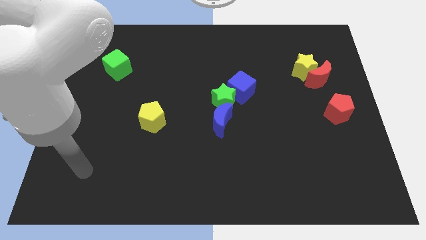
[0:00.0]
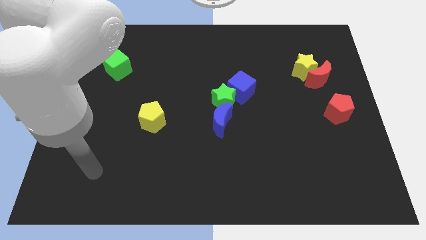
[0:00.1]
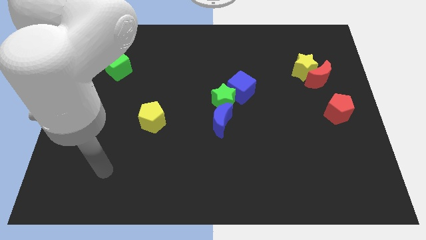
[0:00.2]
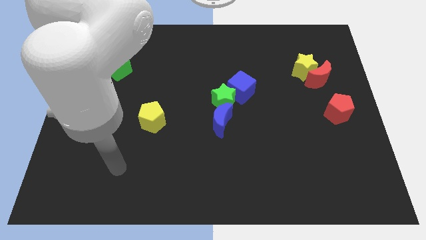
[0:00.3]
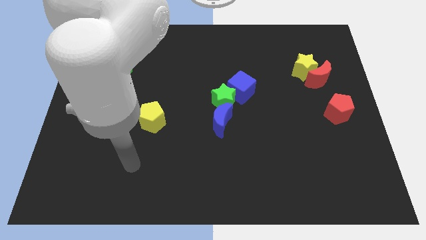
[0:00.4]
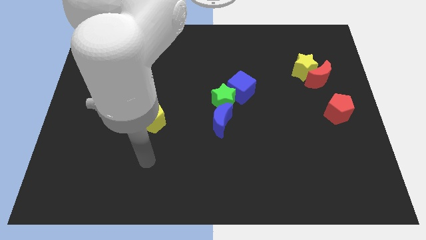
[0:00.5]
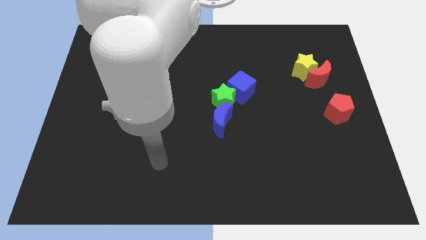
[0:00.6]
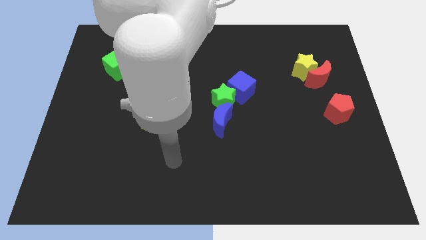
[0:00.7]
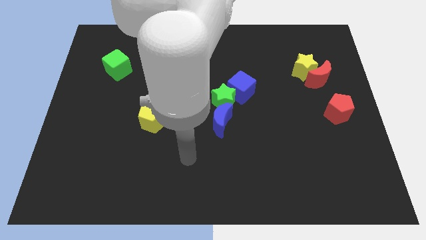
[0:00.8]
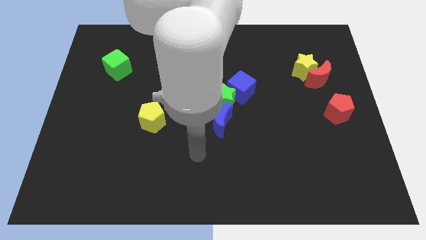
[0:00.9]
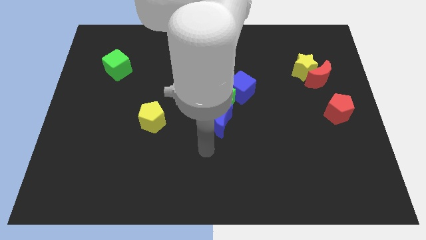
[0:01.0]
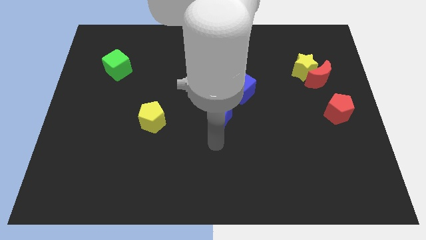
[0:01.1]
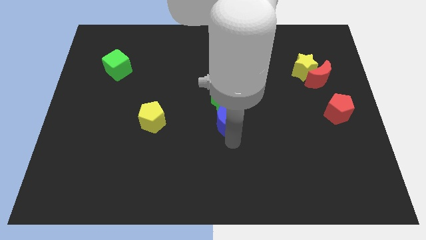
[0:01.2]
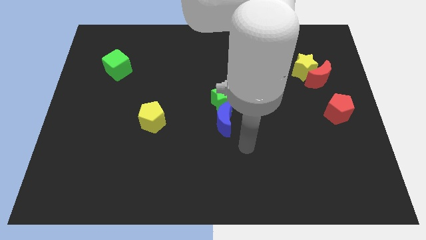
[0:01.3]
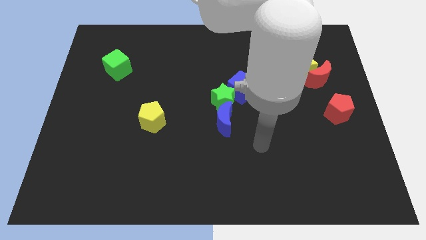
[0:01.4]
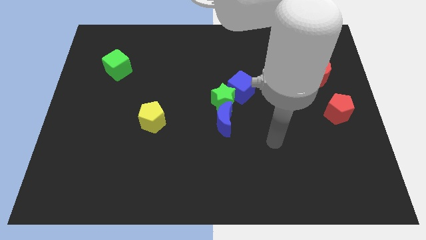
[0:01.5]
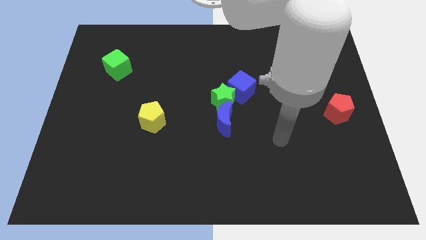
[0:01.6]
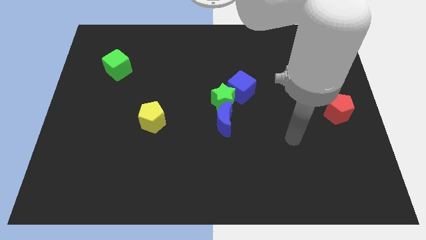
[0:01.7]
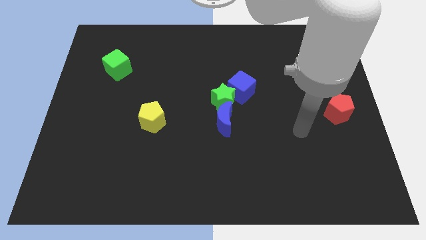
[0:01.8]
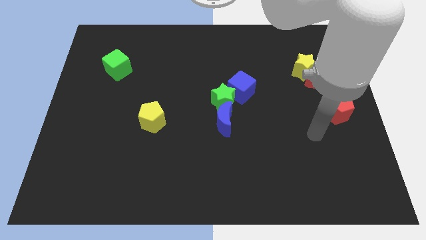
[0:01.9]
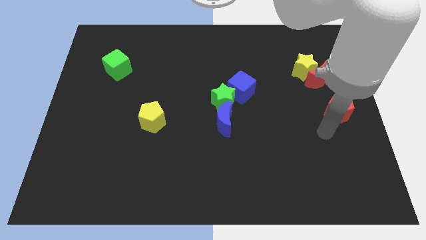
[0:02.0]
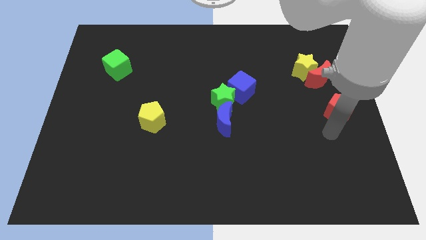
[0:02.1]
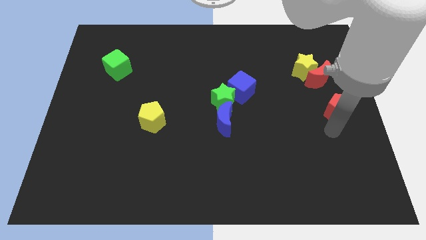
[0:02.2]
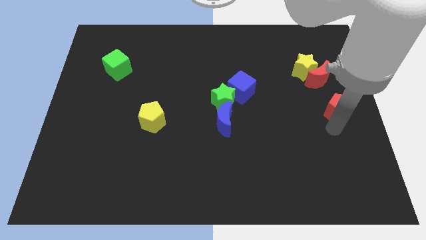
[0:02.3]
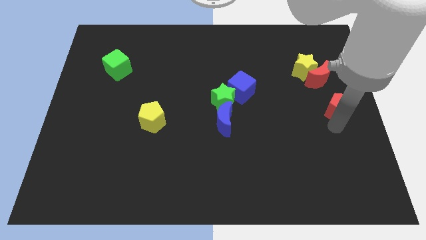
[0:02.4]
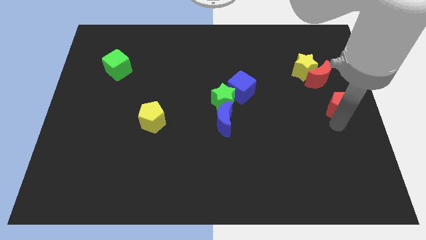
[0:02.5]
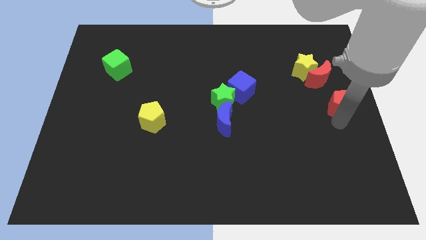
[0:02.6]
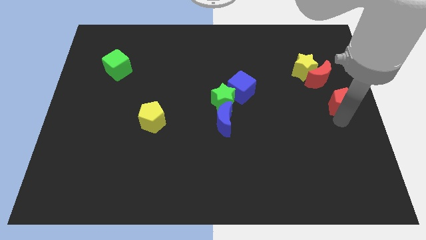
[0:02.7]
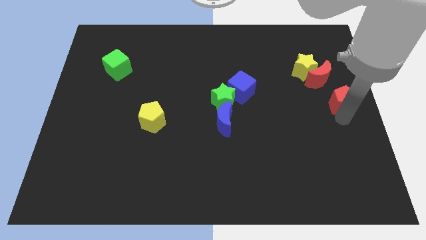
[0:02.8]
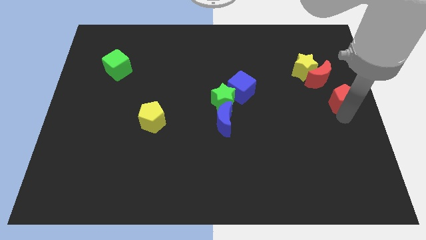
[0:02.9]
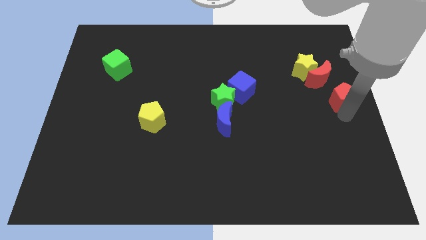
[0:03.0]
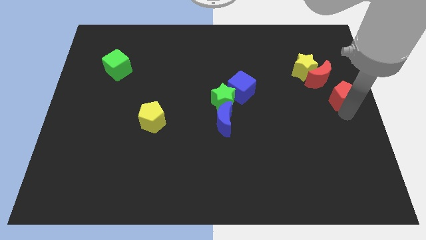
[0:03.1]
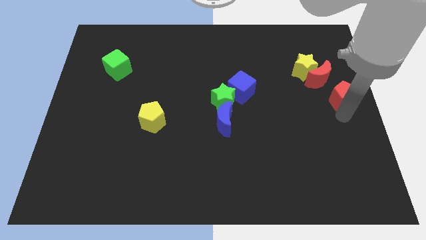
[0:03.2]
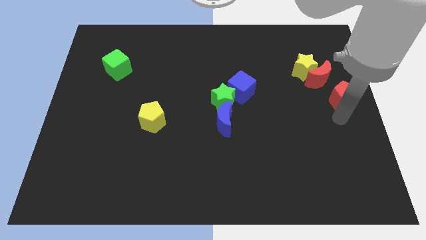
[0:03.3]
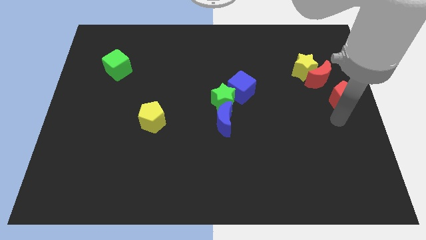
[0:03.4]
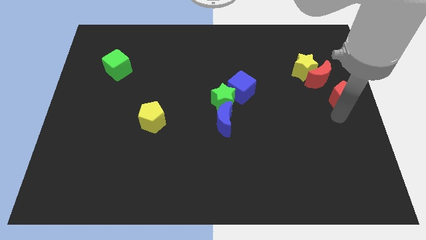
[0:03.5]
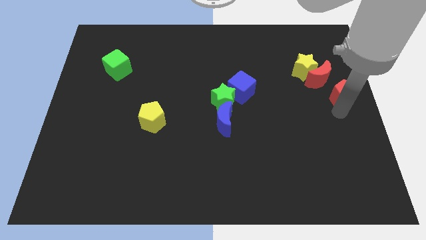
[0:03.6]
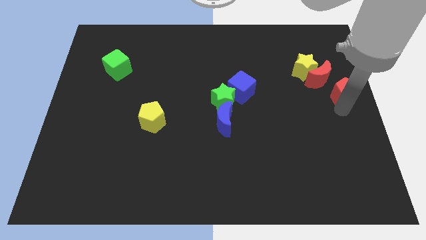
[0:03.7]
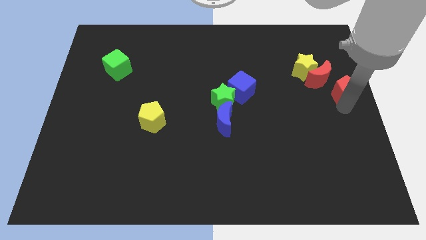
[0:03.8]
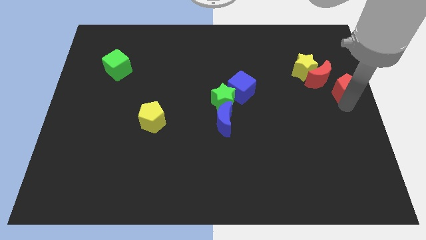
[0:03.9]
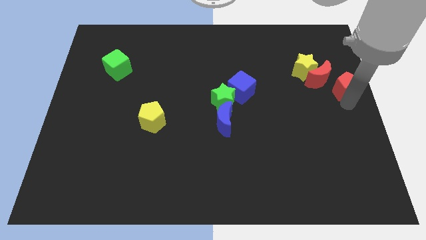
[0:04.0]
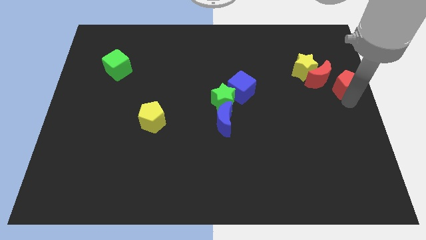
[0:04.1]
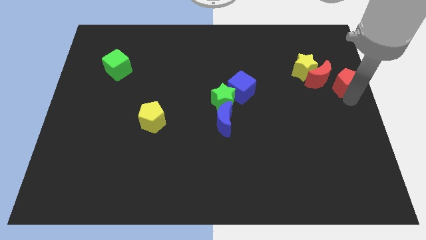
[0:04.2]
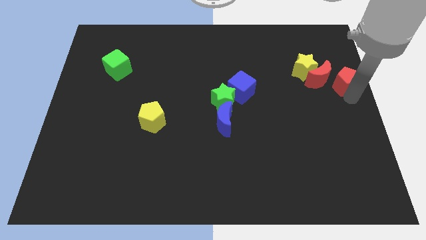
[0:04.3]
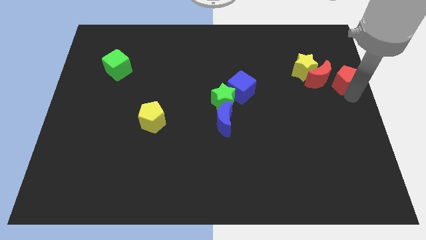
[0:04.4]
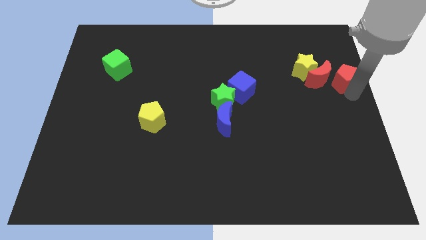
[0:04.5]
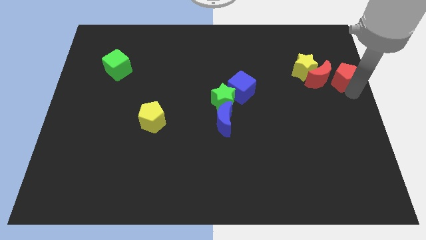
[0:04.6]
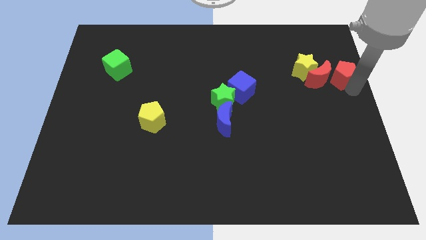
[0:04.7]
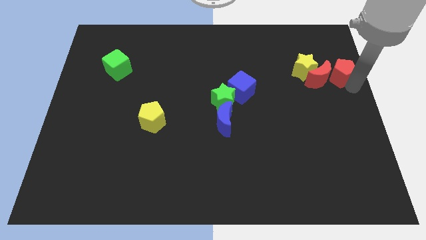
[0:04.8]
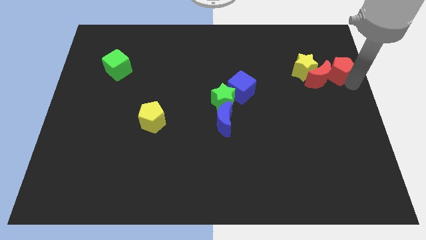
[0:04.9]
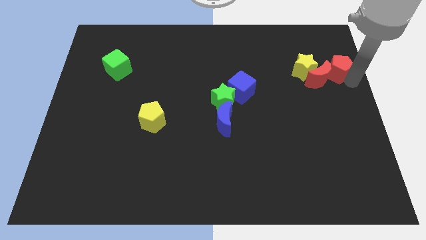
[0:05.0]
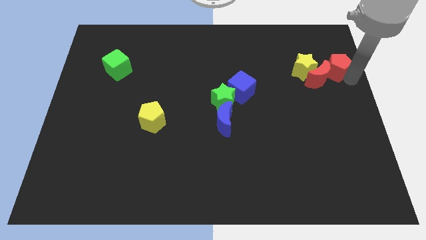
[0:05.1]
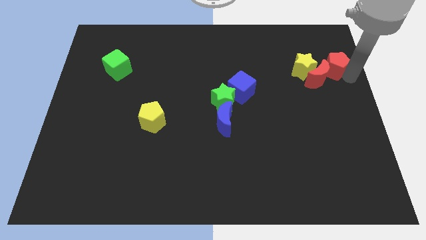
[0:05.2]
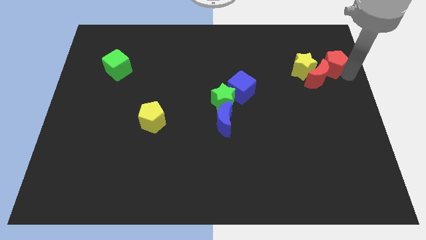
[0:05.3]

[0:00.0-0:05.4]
push the red pentagon to the top right side of the yellow star

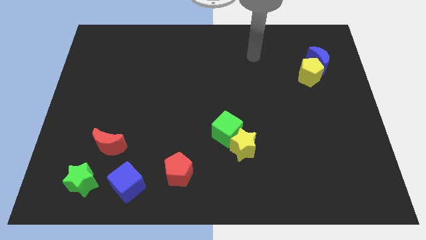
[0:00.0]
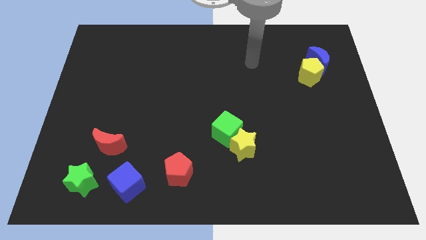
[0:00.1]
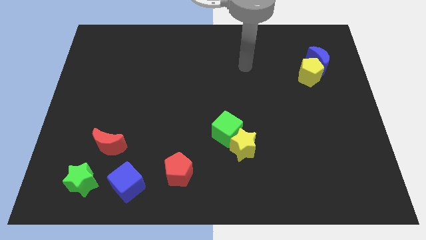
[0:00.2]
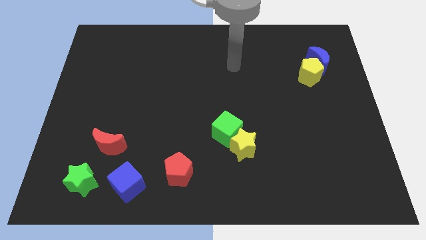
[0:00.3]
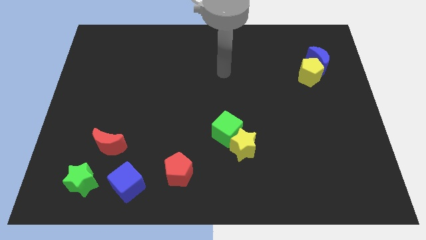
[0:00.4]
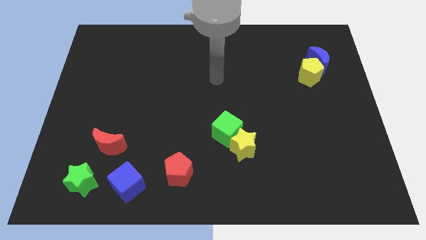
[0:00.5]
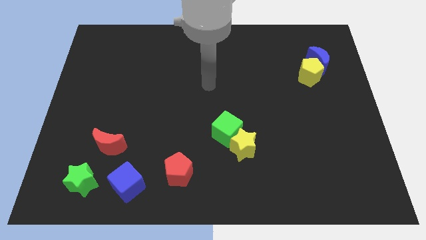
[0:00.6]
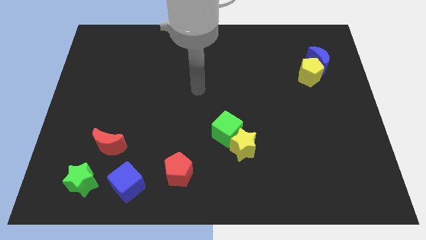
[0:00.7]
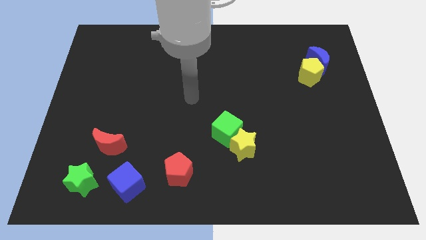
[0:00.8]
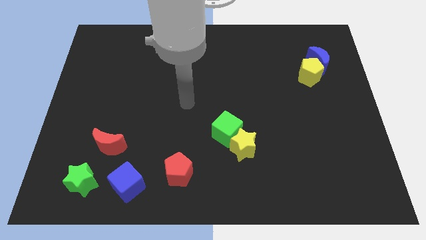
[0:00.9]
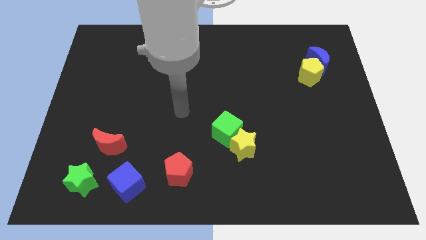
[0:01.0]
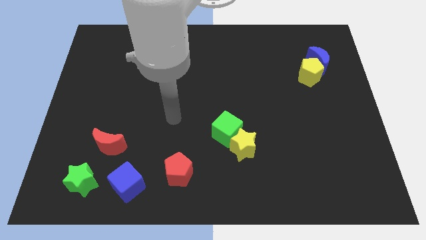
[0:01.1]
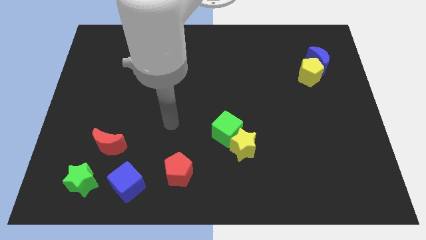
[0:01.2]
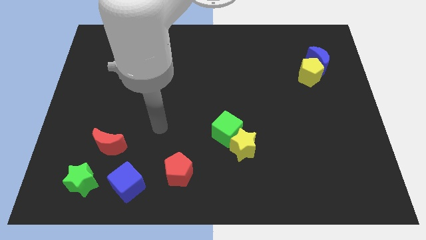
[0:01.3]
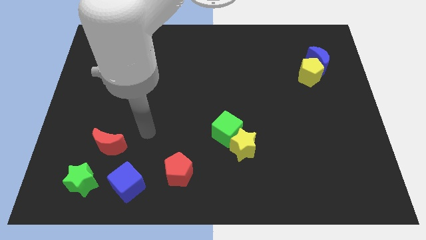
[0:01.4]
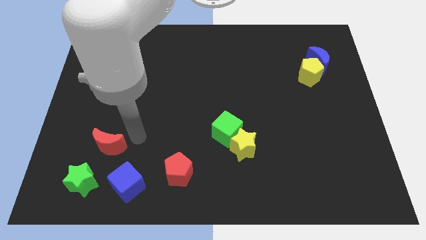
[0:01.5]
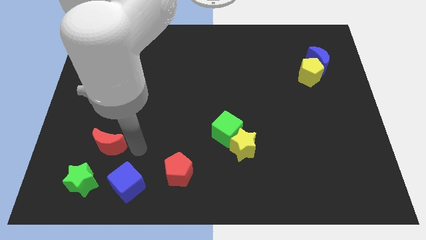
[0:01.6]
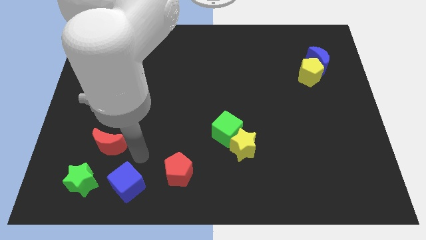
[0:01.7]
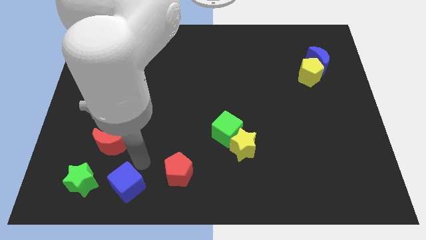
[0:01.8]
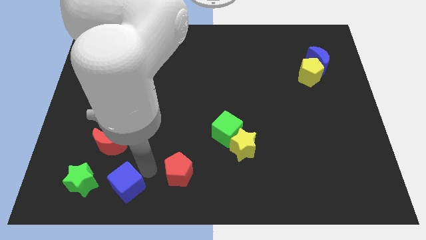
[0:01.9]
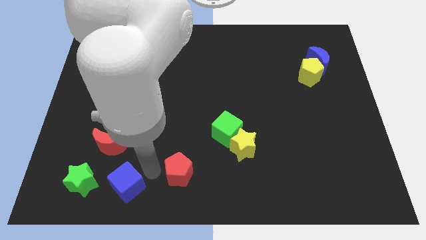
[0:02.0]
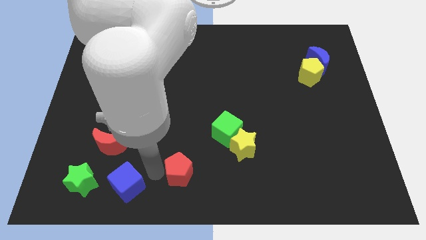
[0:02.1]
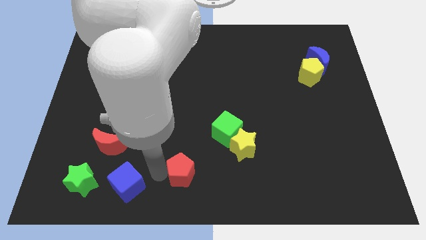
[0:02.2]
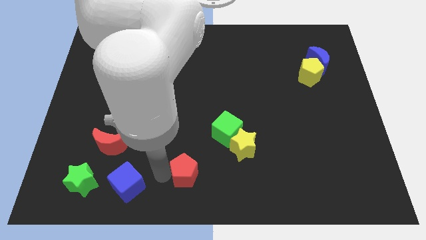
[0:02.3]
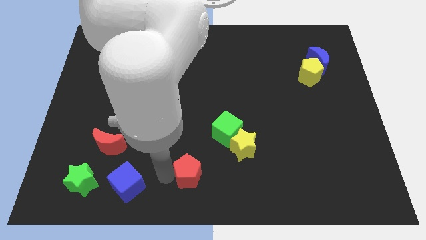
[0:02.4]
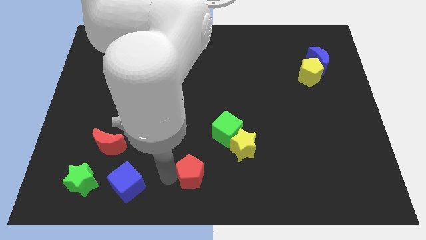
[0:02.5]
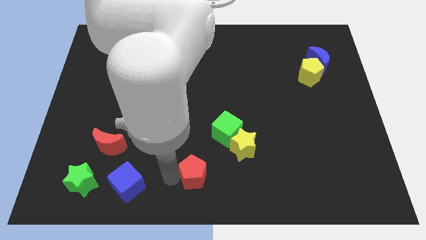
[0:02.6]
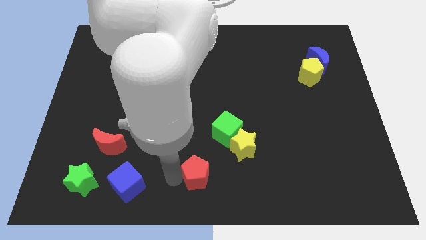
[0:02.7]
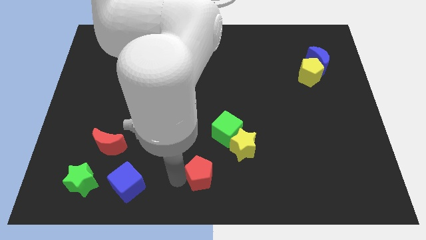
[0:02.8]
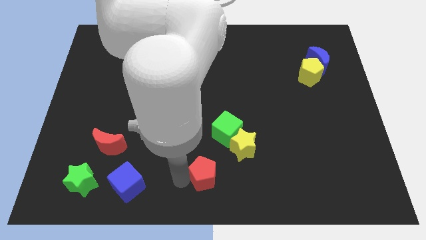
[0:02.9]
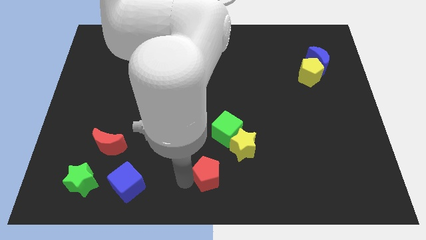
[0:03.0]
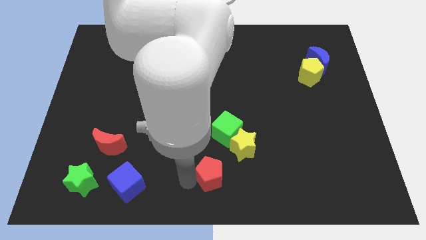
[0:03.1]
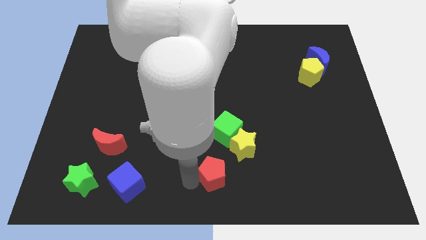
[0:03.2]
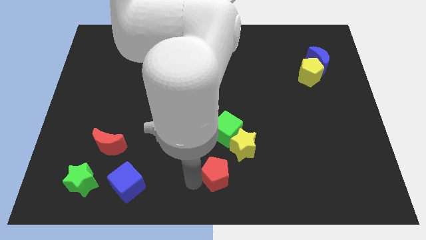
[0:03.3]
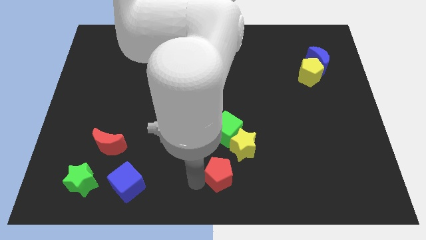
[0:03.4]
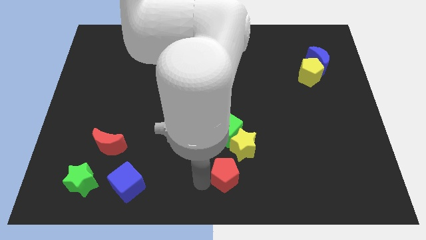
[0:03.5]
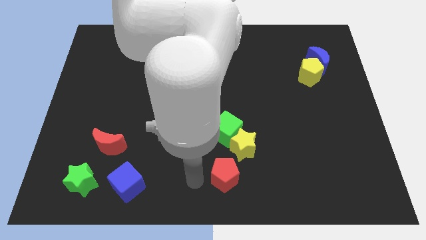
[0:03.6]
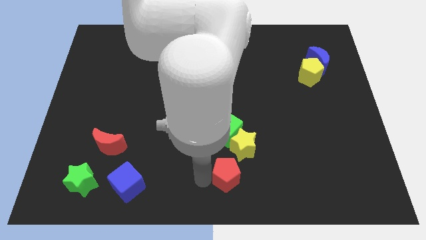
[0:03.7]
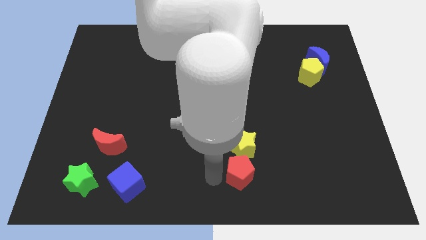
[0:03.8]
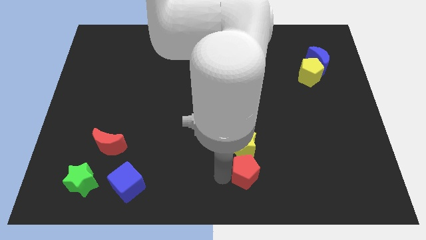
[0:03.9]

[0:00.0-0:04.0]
put the red pentagon diagonally down and to the right of the yellow star
